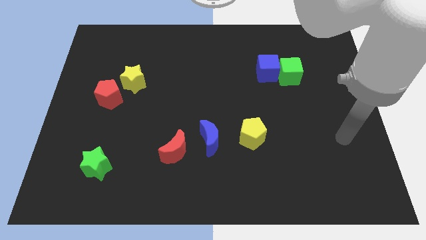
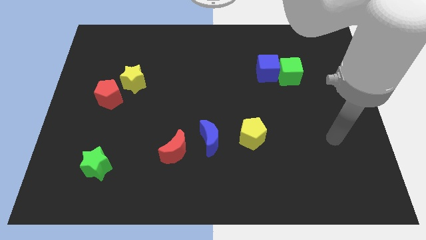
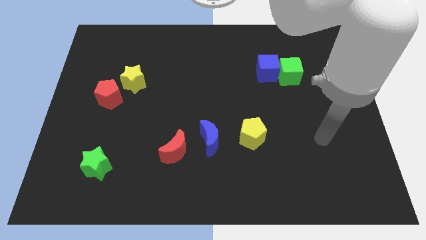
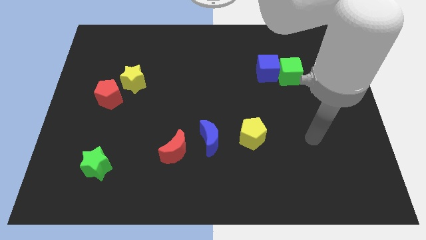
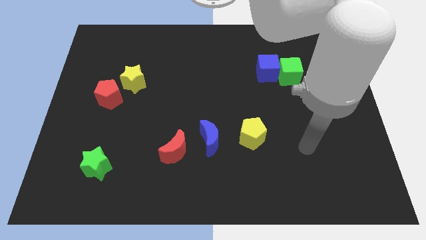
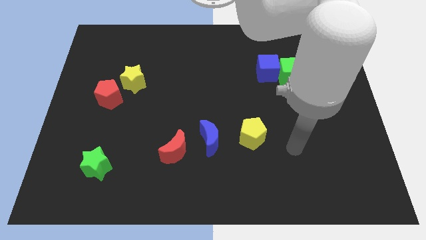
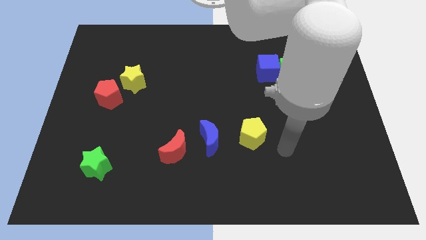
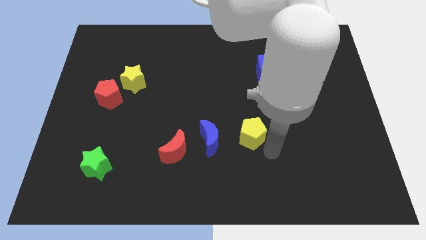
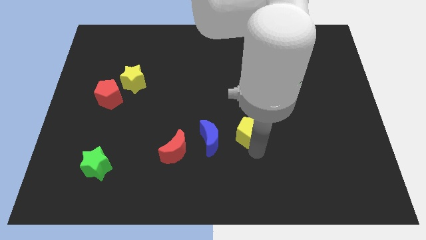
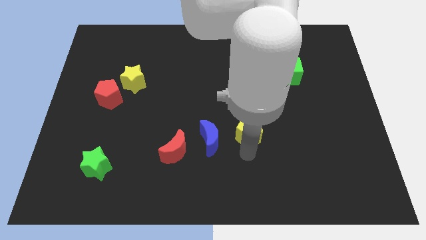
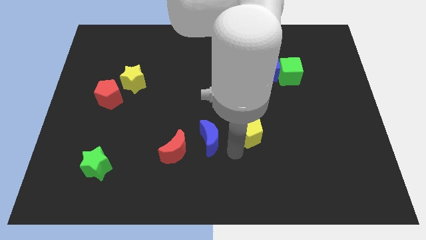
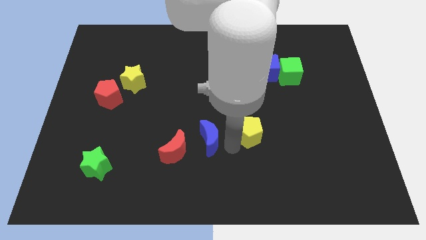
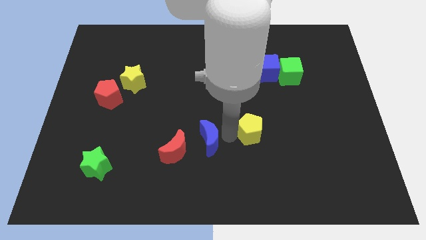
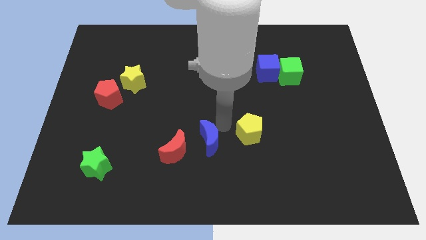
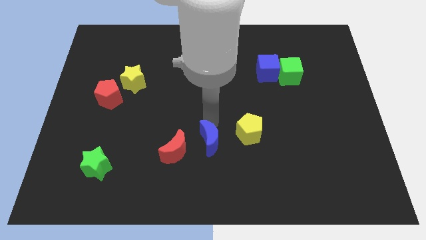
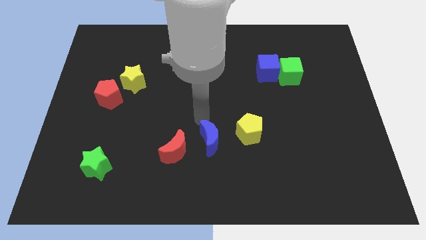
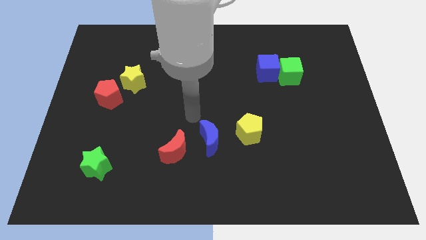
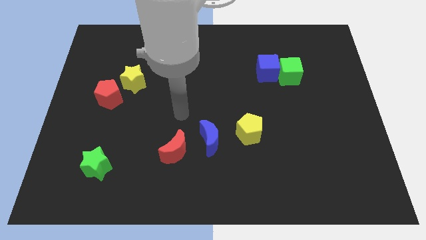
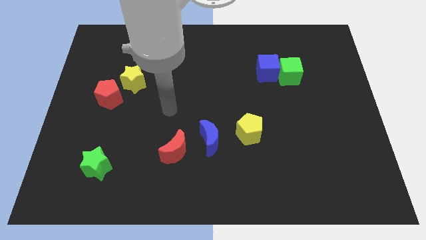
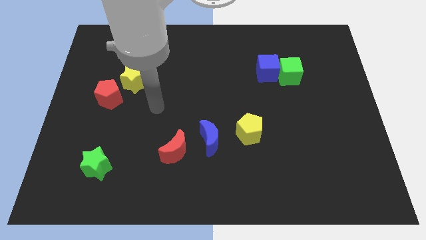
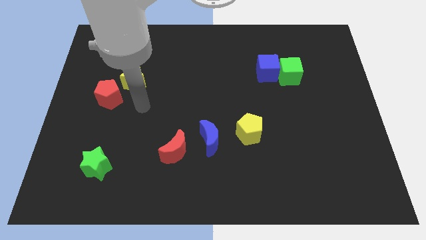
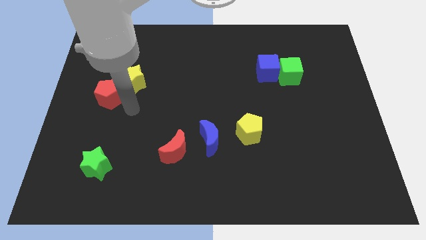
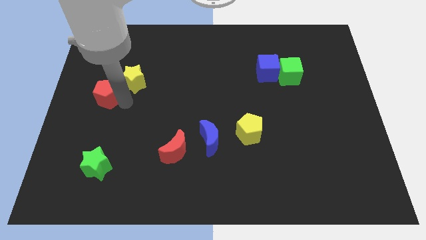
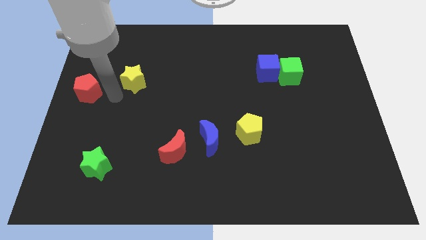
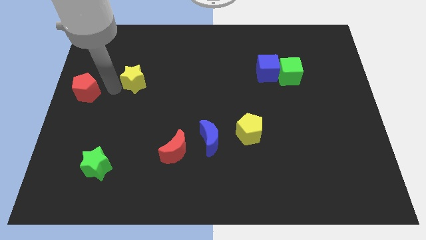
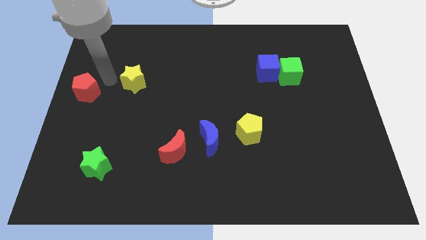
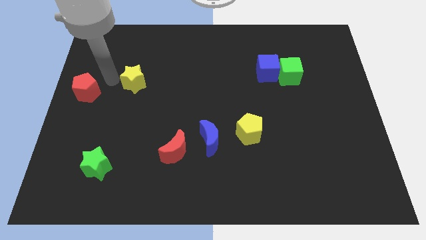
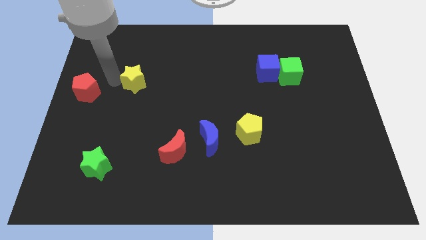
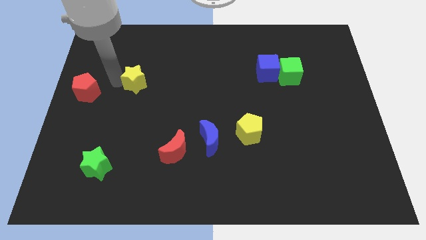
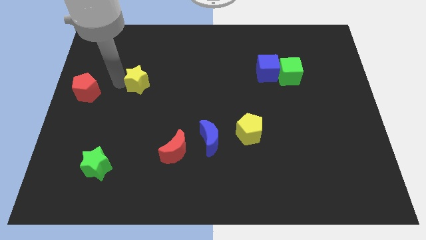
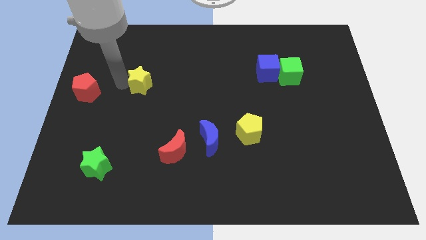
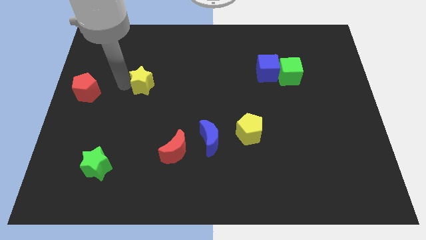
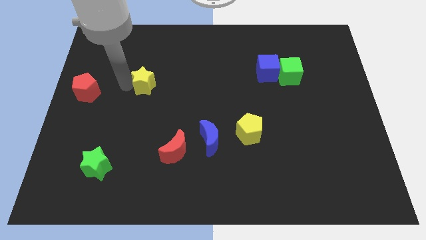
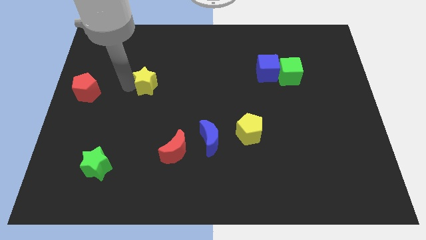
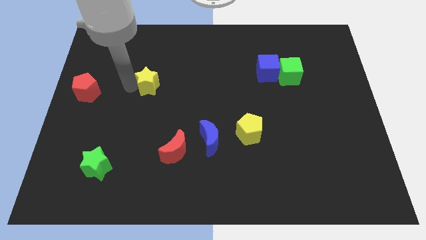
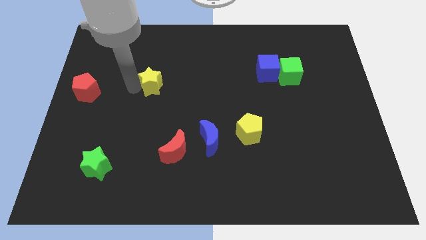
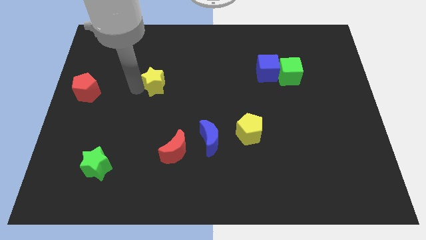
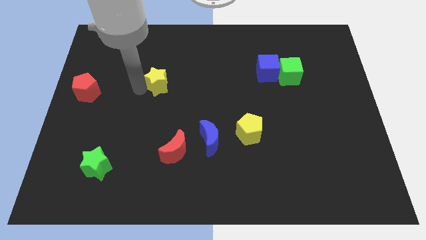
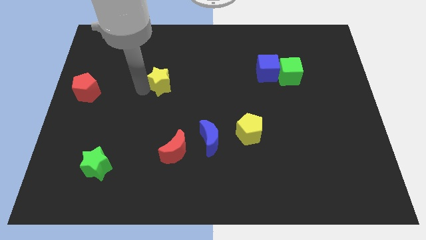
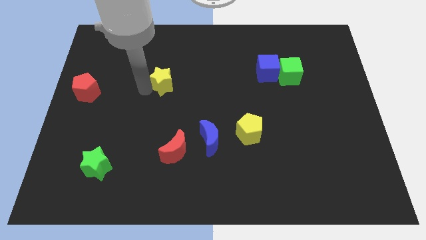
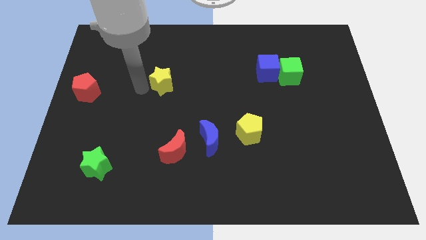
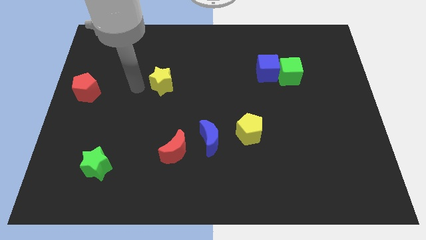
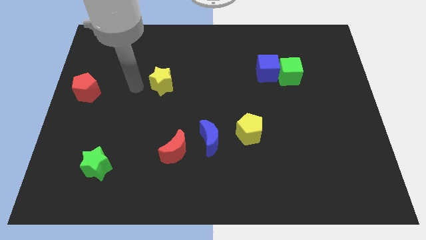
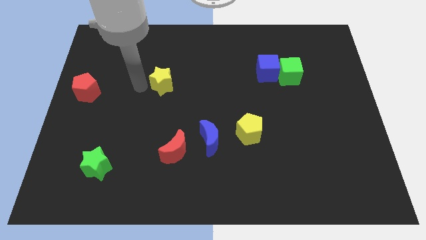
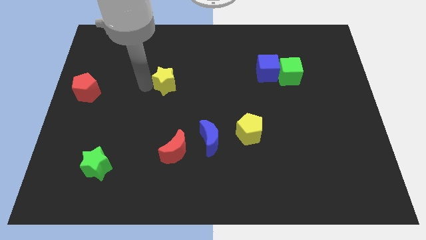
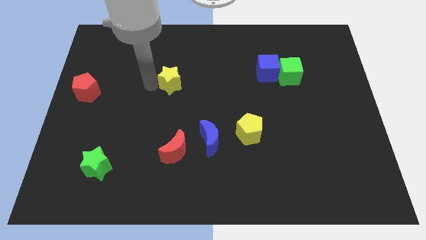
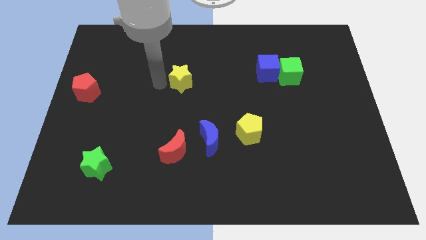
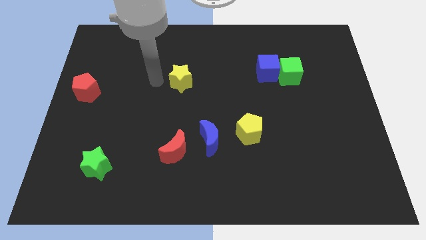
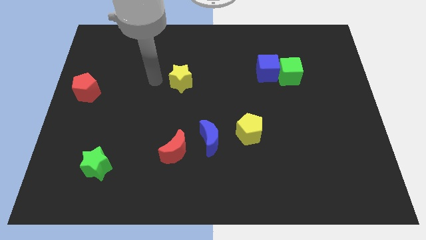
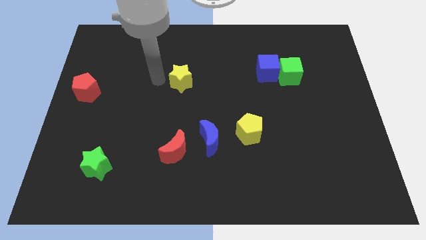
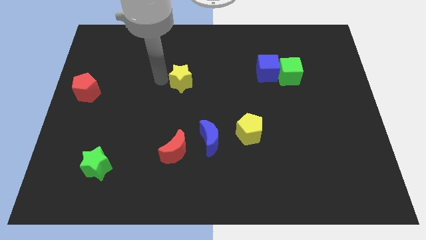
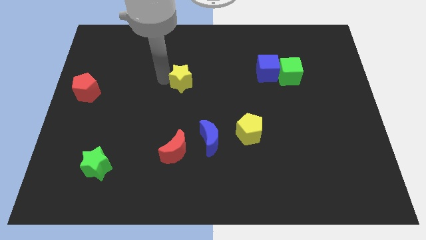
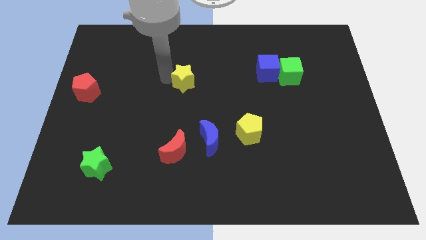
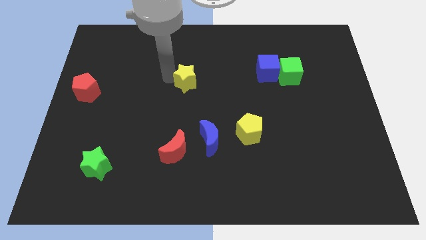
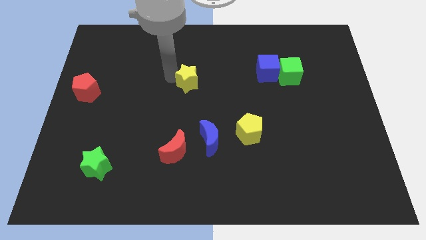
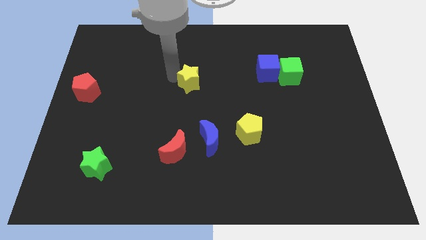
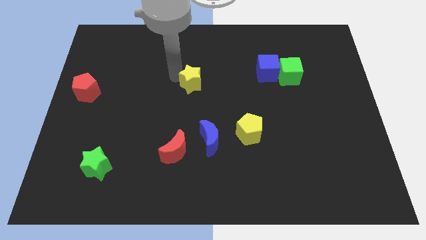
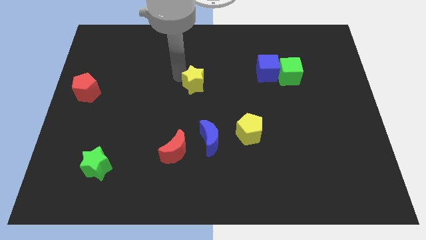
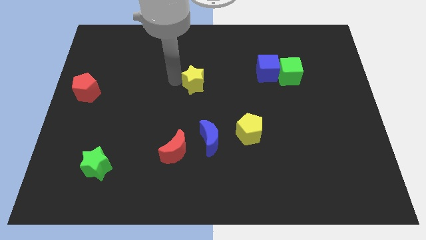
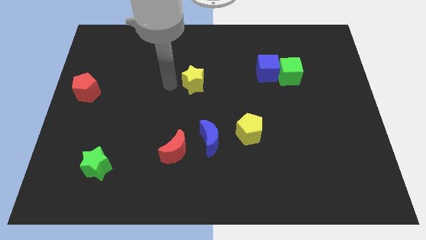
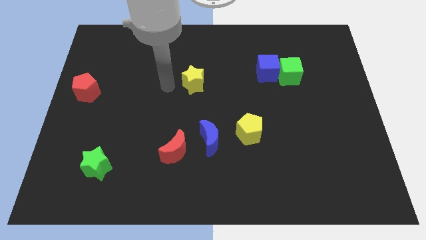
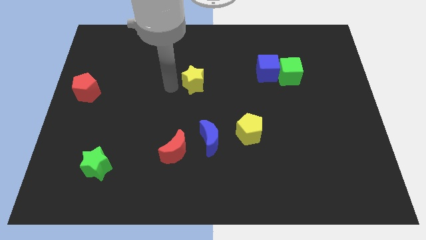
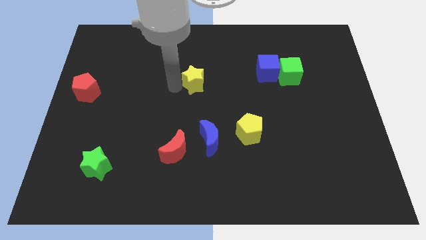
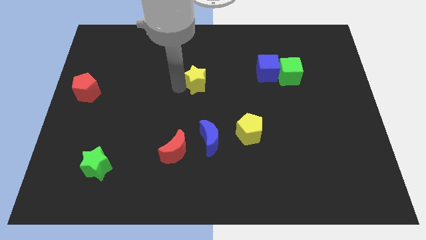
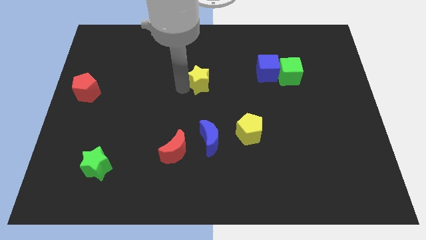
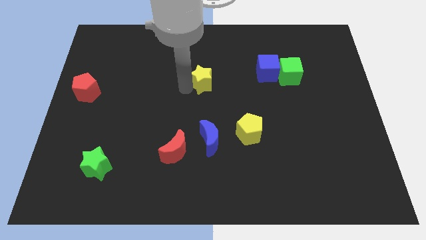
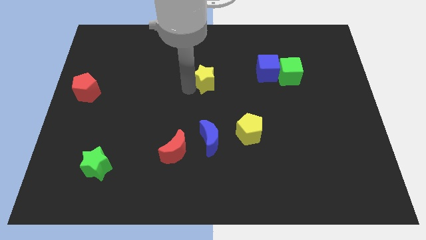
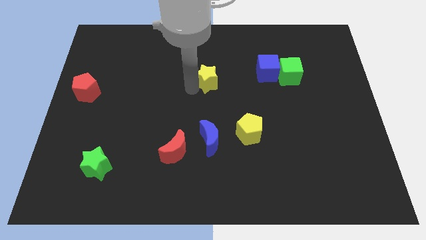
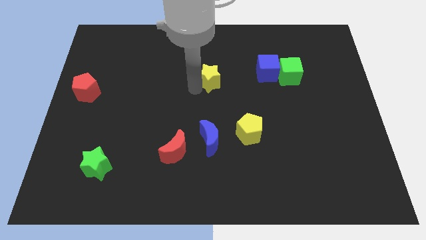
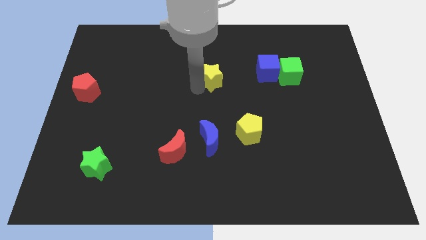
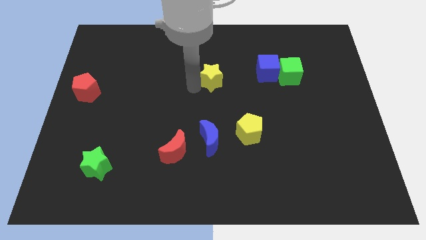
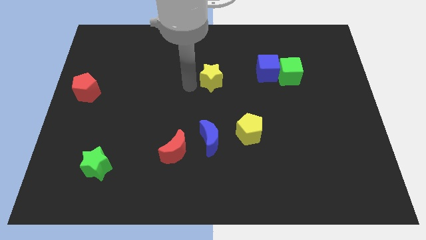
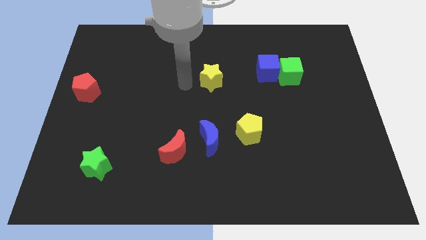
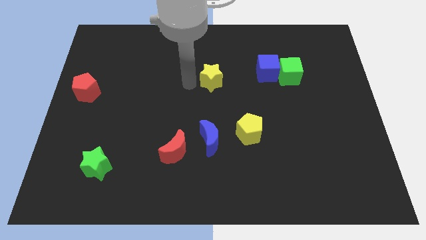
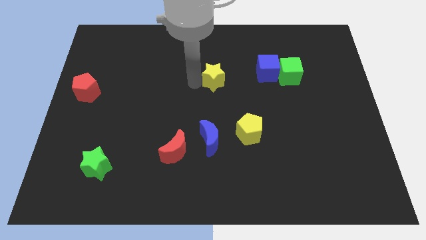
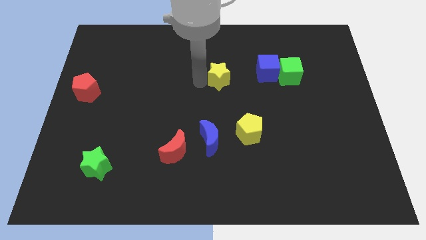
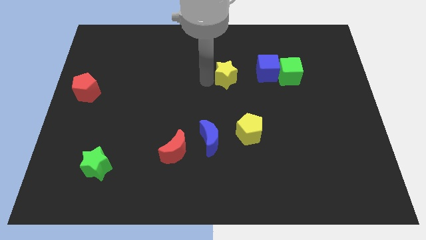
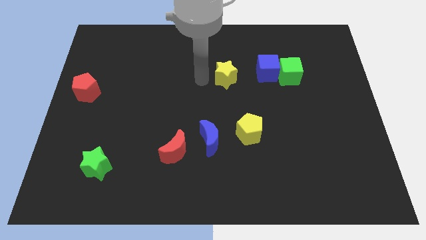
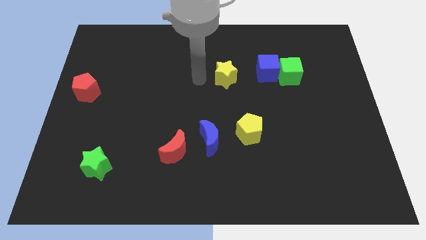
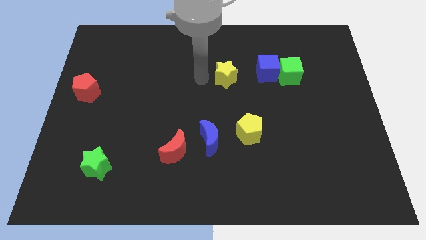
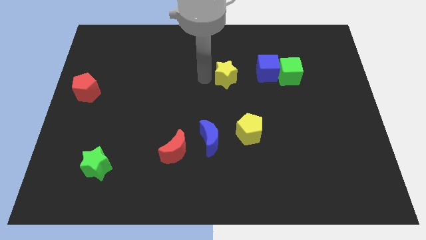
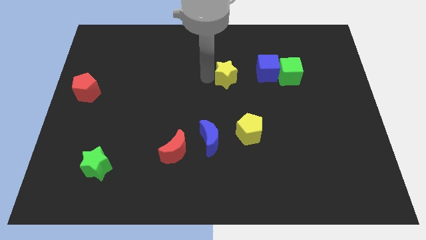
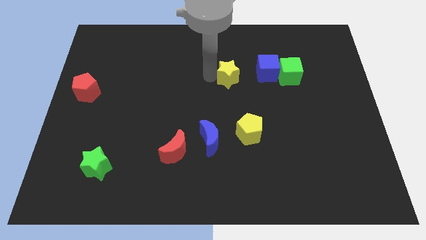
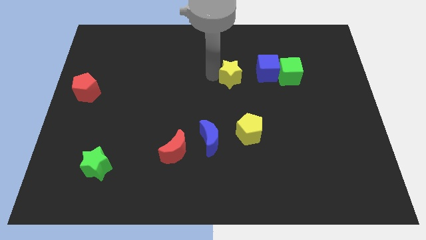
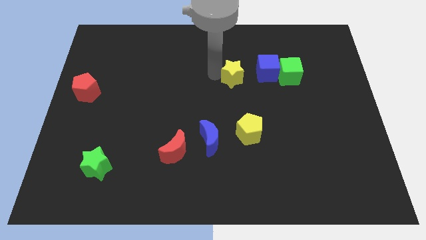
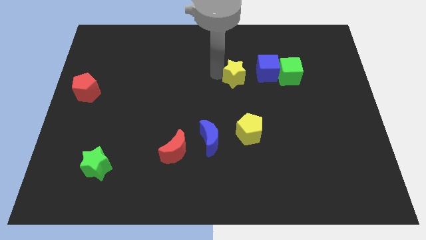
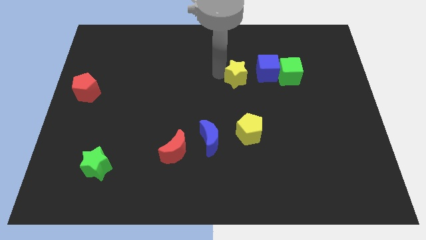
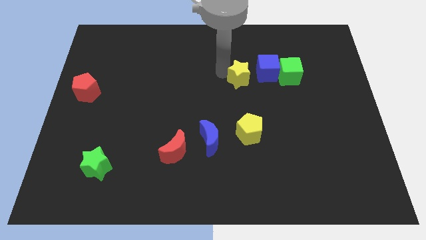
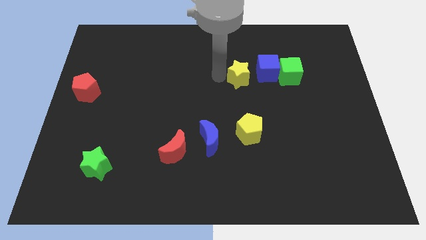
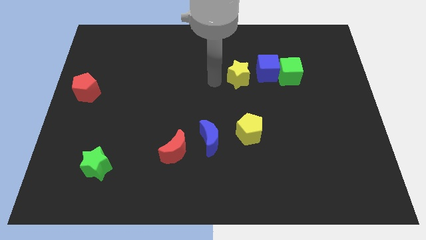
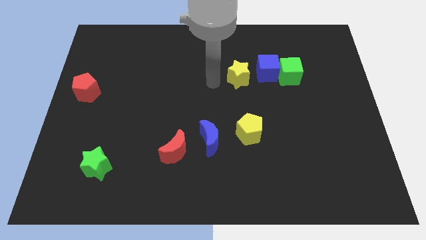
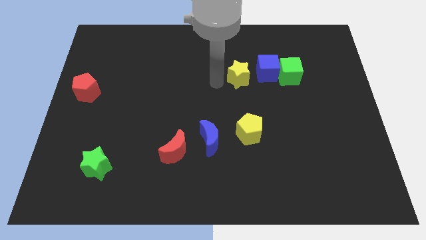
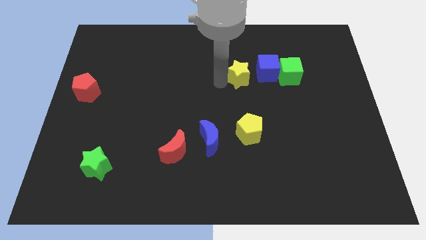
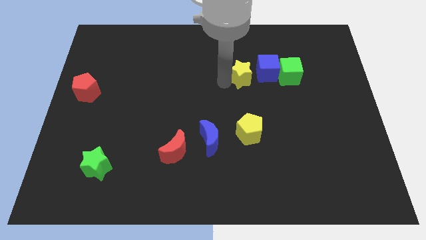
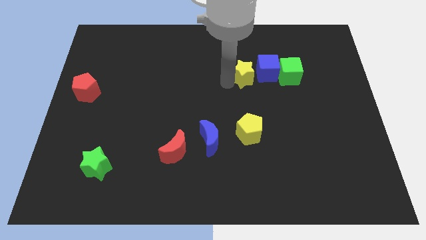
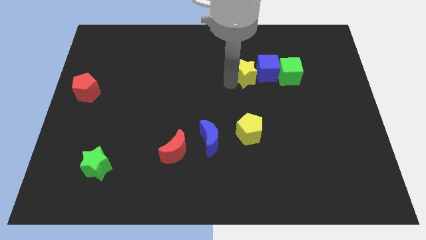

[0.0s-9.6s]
move the yellow star towards the blue cube
